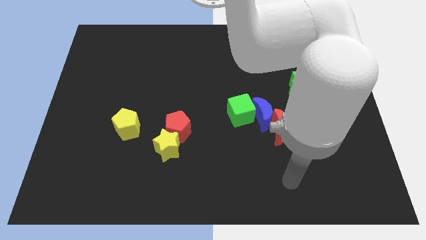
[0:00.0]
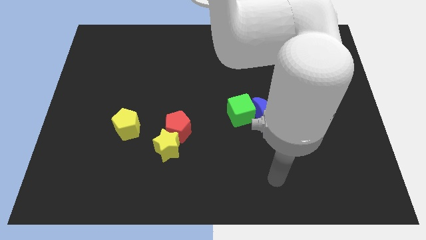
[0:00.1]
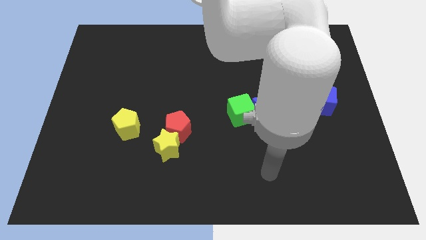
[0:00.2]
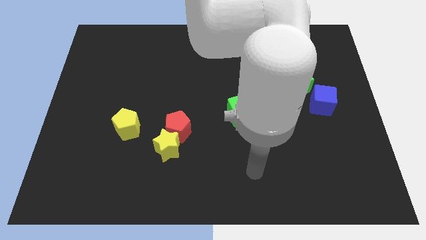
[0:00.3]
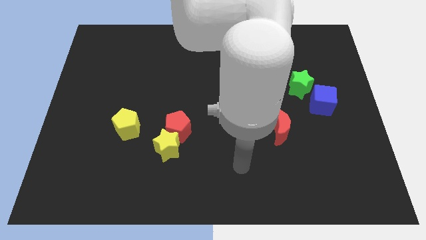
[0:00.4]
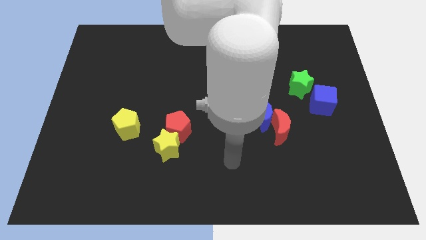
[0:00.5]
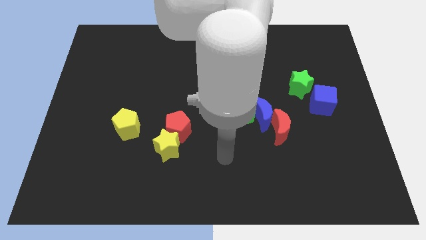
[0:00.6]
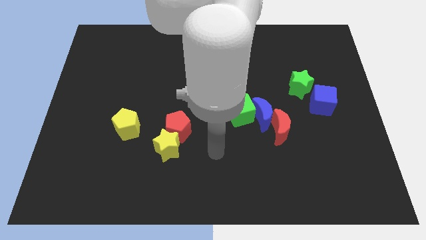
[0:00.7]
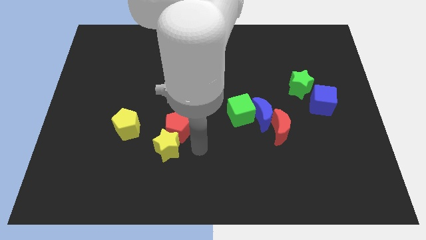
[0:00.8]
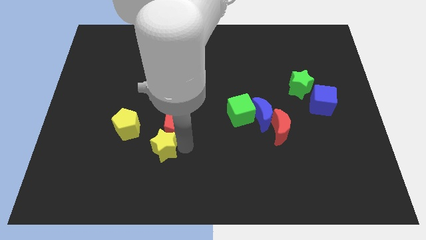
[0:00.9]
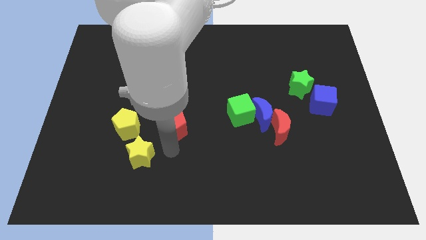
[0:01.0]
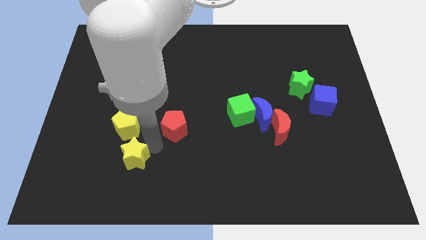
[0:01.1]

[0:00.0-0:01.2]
separate the red pentagon from the yellow star

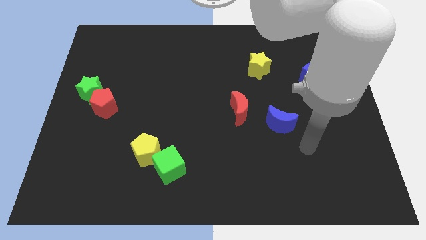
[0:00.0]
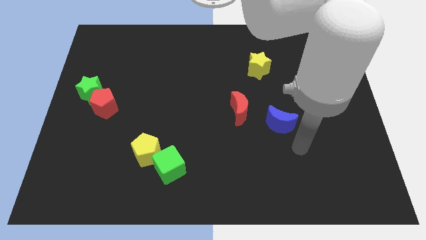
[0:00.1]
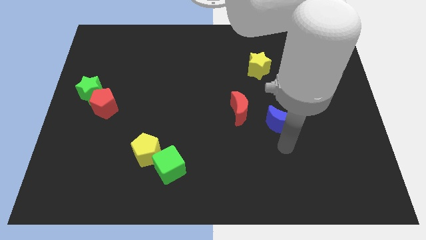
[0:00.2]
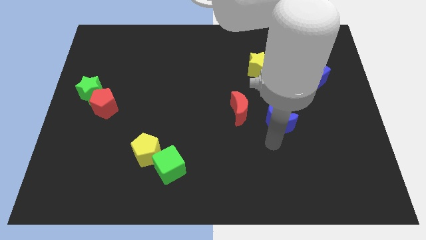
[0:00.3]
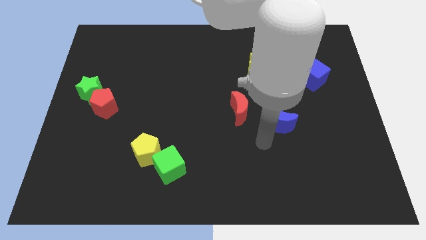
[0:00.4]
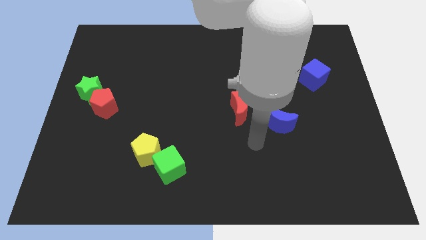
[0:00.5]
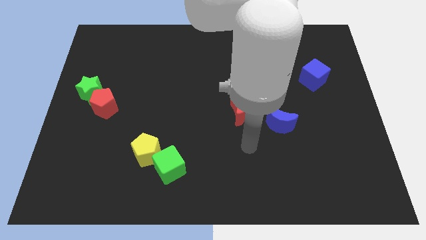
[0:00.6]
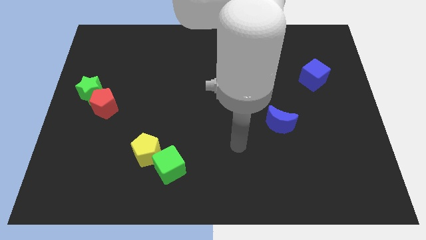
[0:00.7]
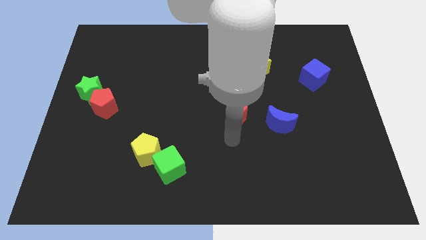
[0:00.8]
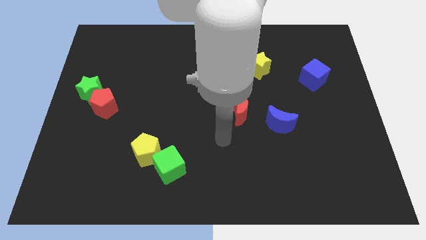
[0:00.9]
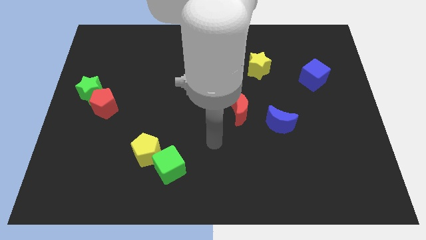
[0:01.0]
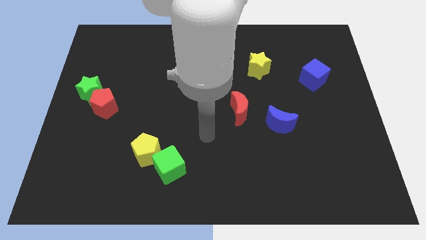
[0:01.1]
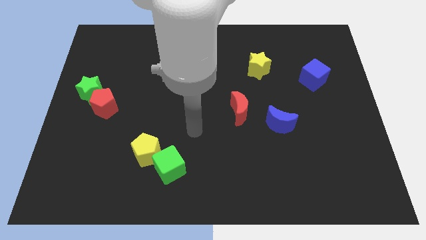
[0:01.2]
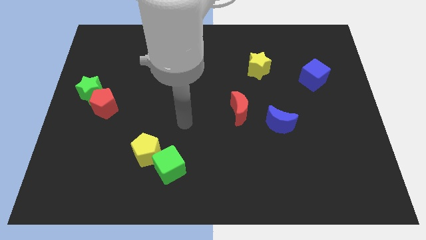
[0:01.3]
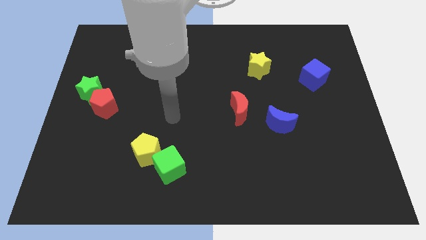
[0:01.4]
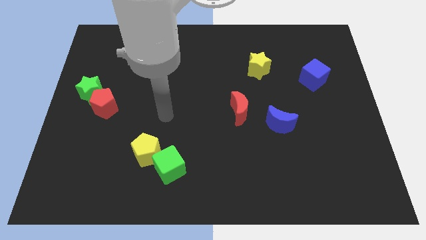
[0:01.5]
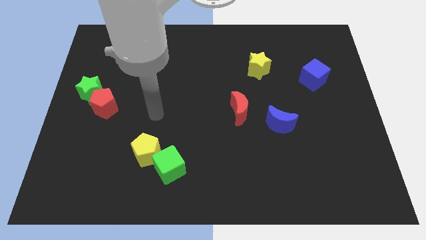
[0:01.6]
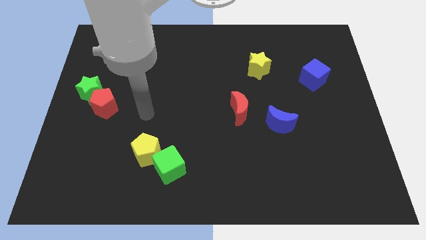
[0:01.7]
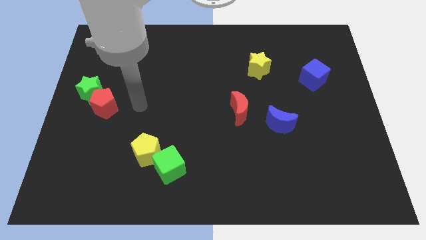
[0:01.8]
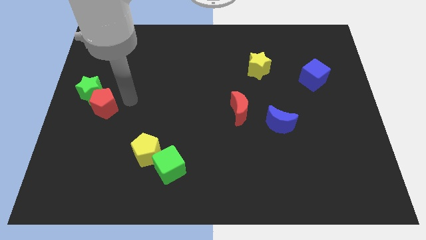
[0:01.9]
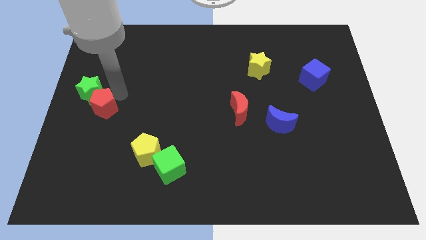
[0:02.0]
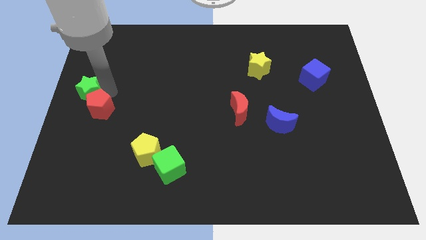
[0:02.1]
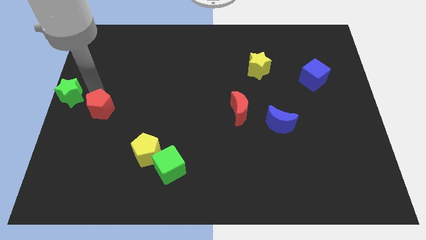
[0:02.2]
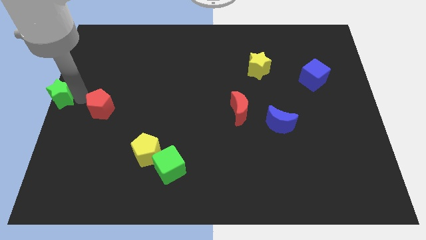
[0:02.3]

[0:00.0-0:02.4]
move the red pentagon away from the green star

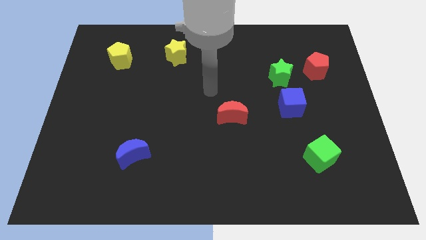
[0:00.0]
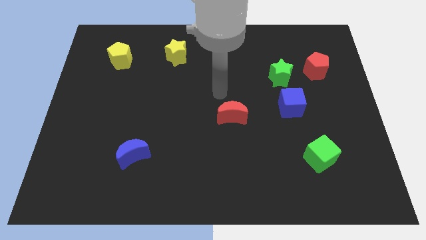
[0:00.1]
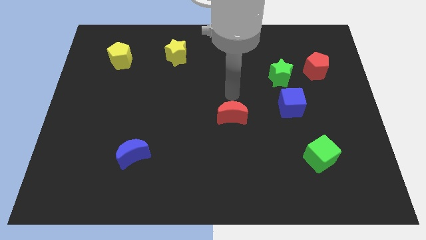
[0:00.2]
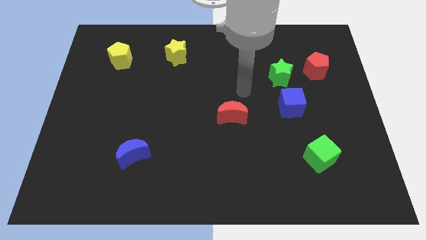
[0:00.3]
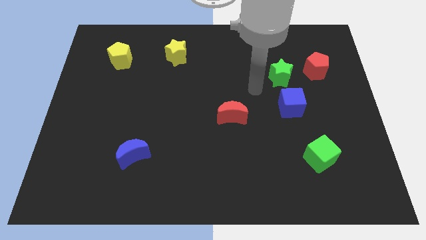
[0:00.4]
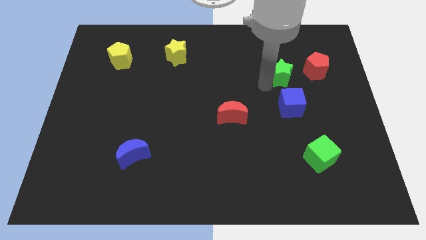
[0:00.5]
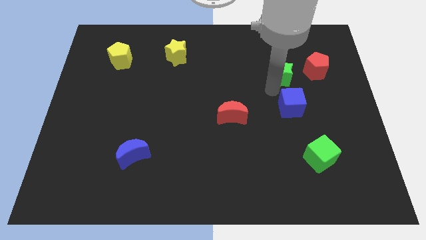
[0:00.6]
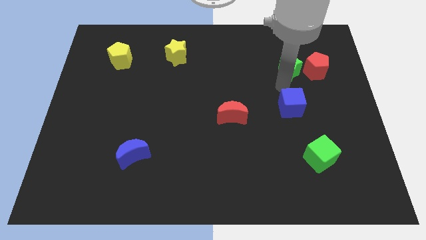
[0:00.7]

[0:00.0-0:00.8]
pull the blue cube apart from the green star

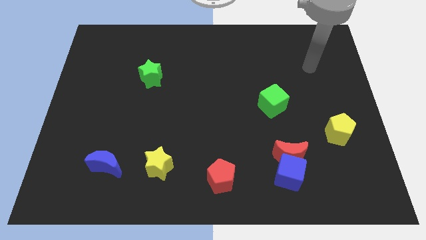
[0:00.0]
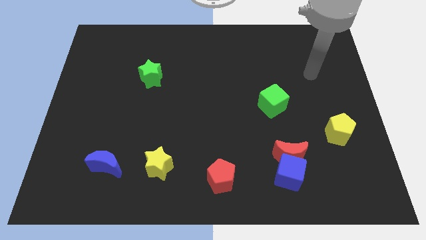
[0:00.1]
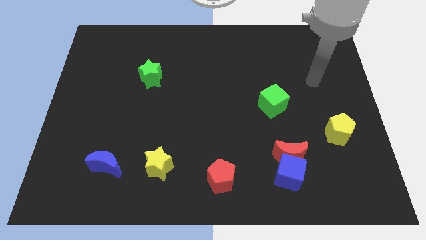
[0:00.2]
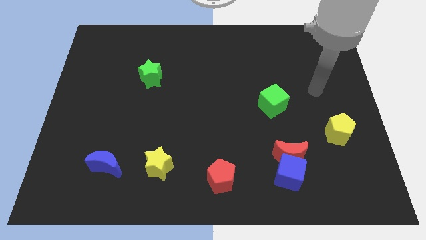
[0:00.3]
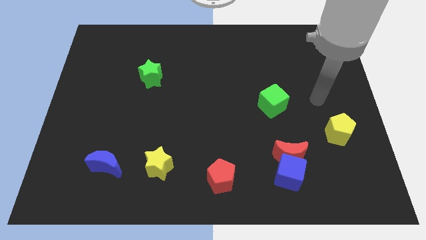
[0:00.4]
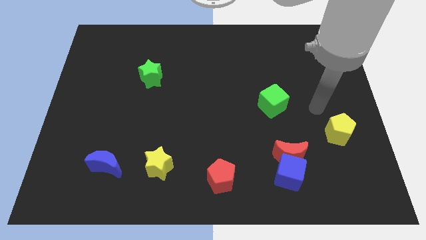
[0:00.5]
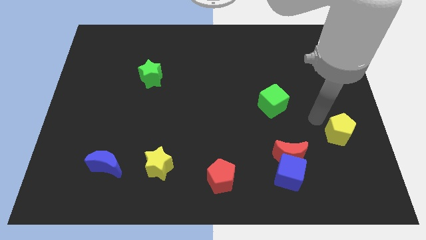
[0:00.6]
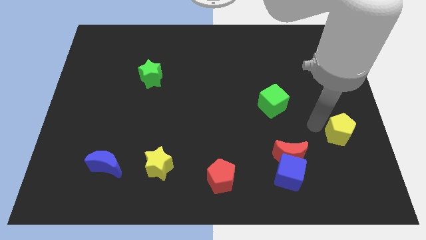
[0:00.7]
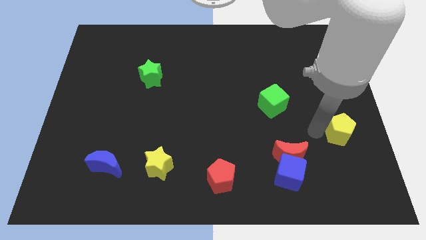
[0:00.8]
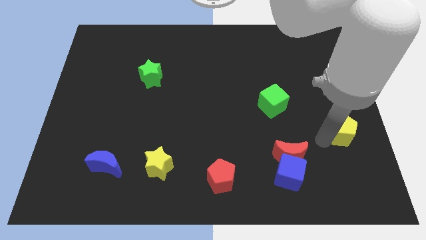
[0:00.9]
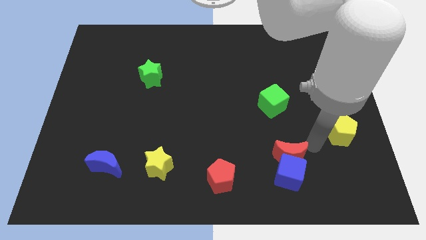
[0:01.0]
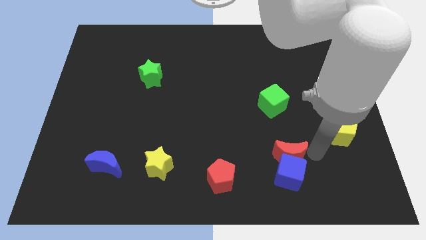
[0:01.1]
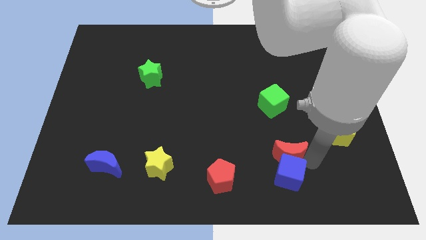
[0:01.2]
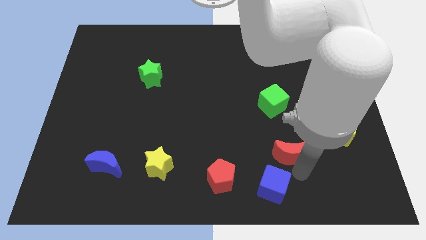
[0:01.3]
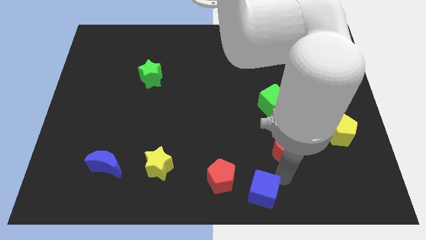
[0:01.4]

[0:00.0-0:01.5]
separate the red moon from the blue cube

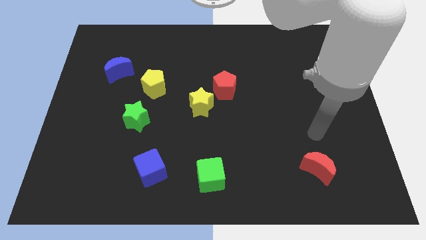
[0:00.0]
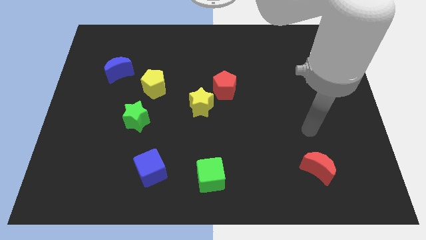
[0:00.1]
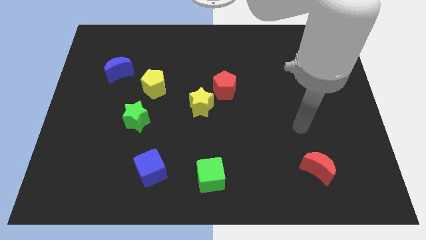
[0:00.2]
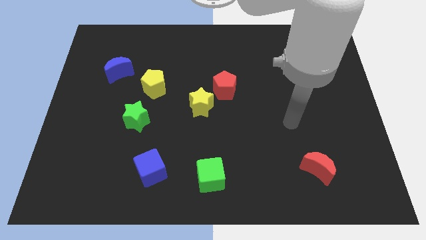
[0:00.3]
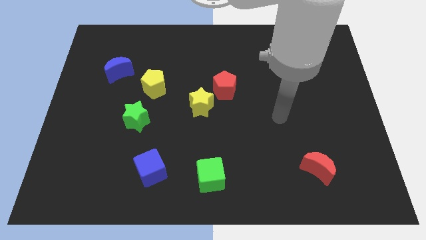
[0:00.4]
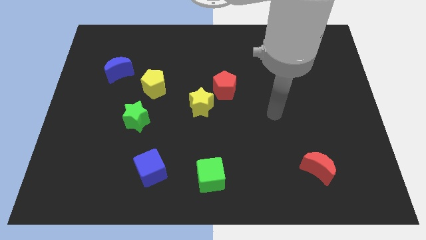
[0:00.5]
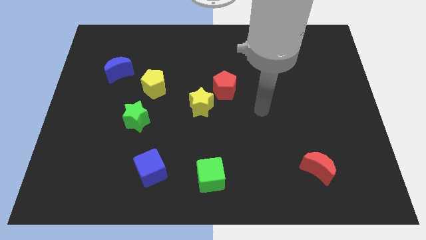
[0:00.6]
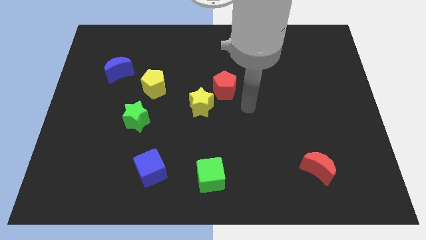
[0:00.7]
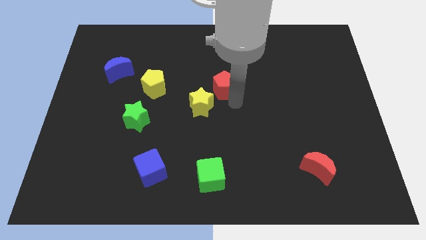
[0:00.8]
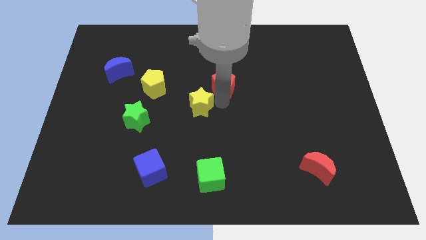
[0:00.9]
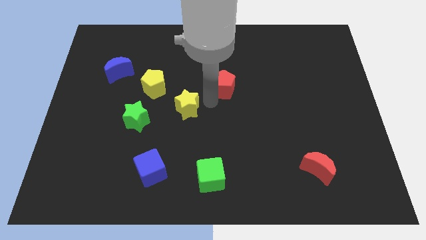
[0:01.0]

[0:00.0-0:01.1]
move the red pentagon away from the yellow star

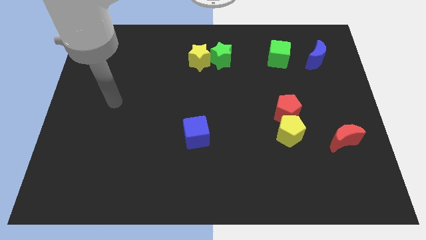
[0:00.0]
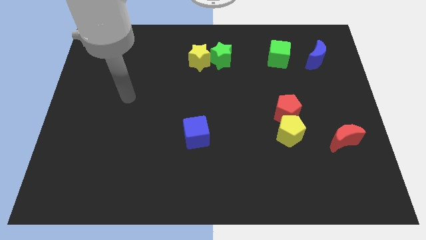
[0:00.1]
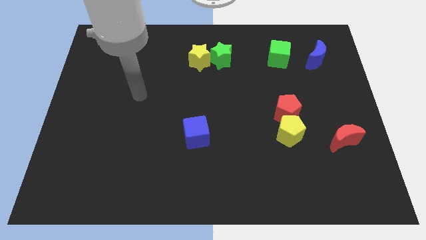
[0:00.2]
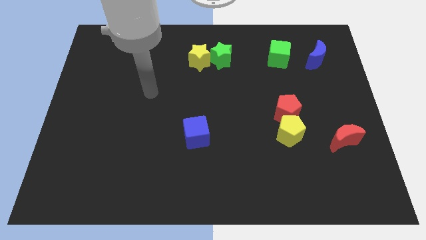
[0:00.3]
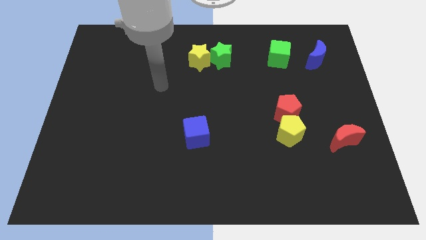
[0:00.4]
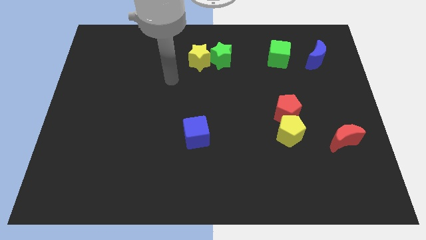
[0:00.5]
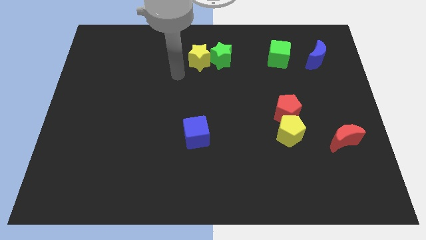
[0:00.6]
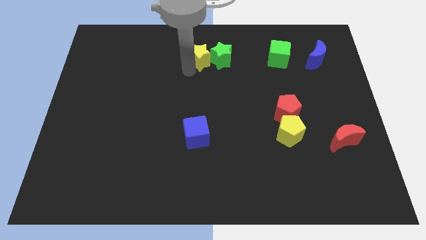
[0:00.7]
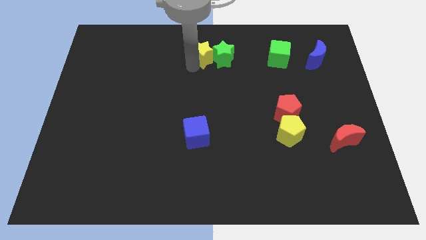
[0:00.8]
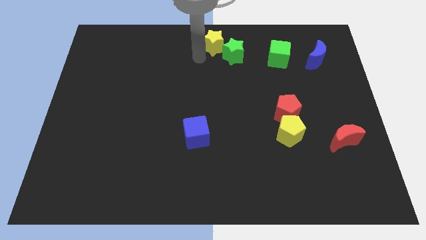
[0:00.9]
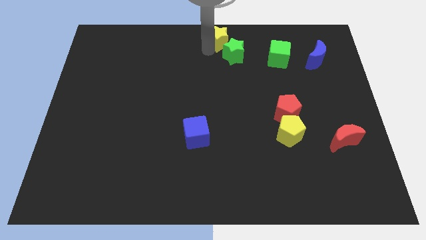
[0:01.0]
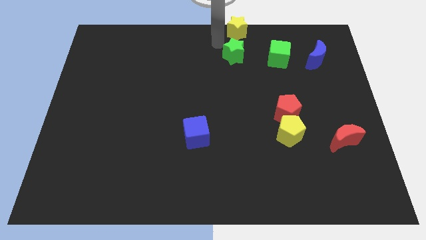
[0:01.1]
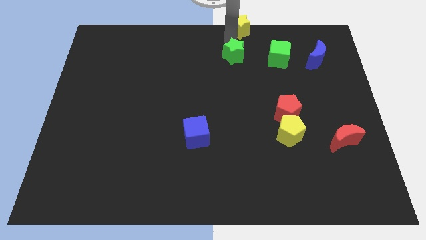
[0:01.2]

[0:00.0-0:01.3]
move the green star away from the yellow star

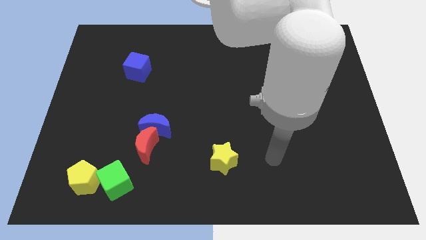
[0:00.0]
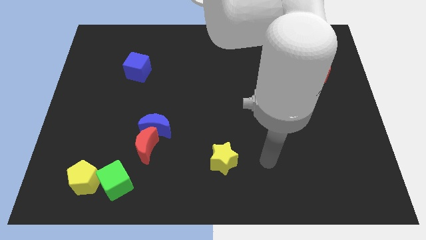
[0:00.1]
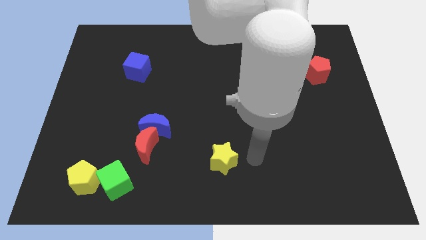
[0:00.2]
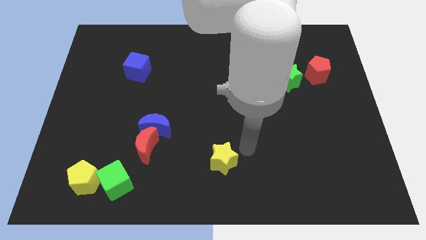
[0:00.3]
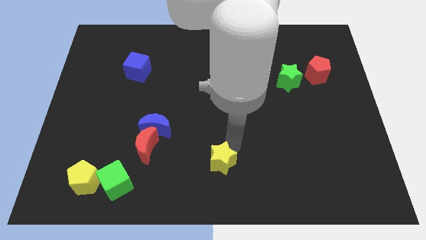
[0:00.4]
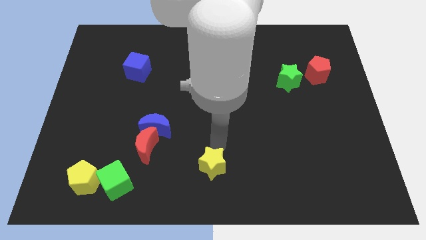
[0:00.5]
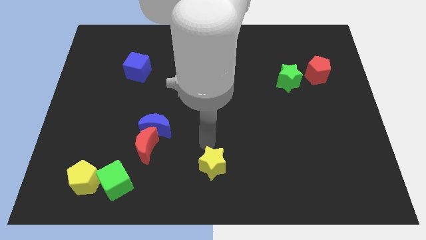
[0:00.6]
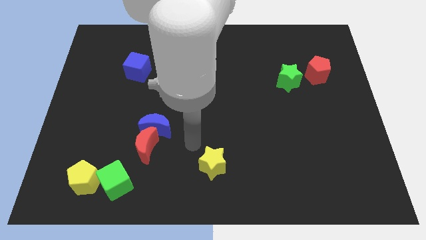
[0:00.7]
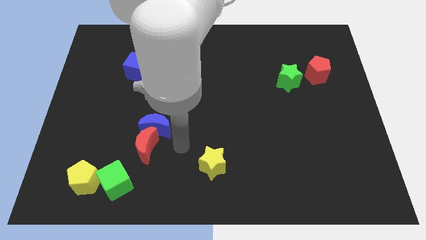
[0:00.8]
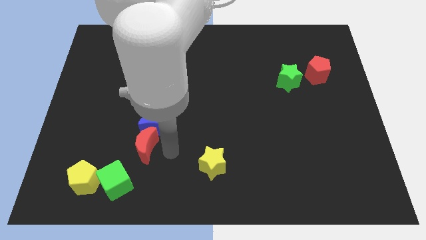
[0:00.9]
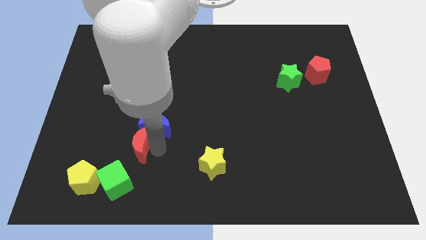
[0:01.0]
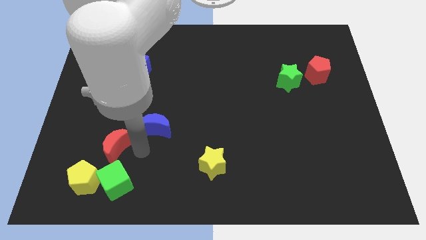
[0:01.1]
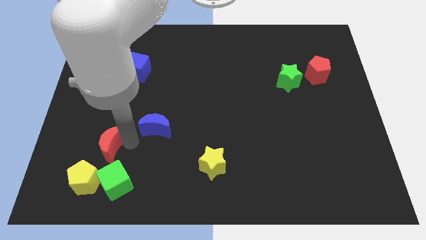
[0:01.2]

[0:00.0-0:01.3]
pull the blue moon apart from the red moon
